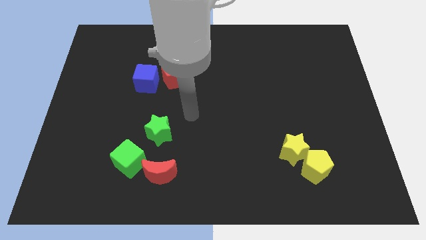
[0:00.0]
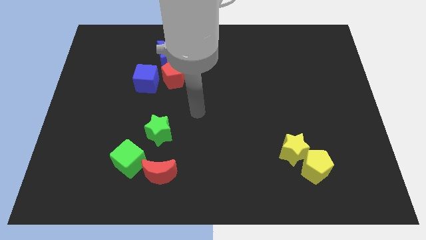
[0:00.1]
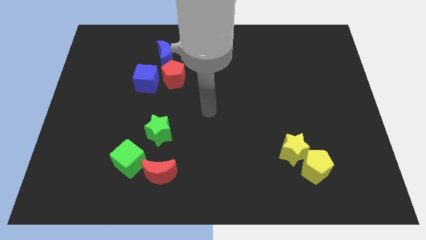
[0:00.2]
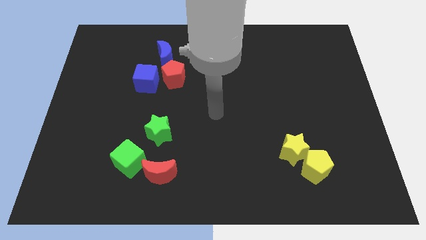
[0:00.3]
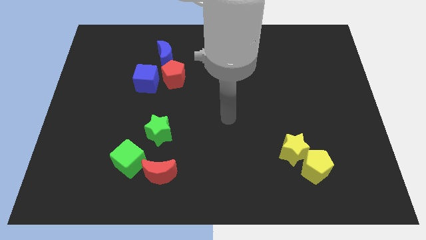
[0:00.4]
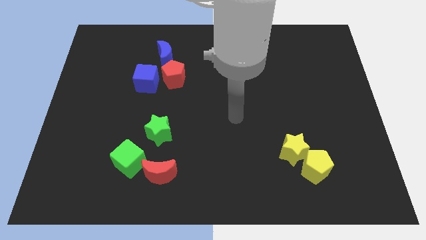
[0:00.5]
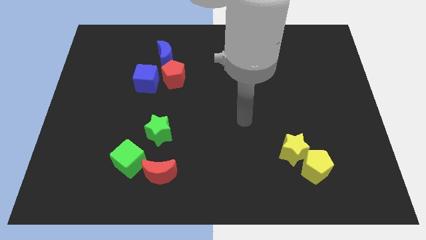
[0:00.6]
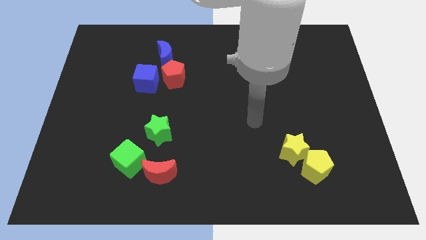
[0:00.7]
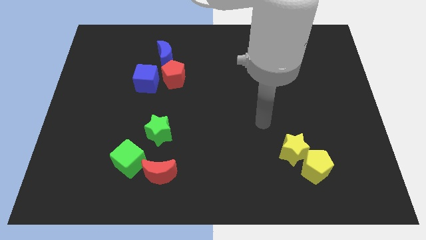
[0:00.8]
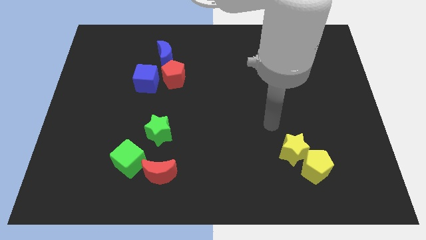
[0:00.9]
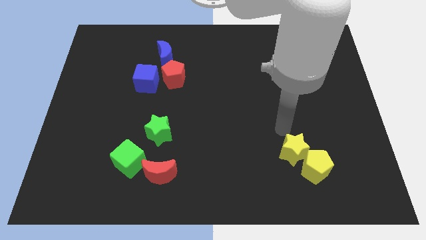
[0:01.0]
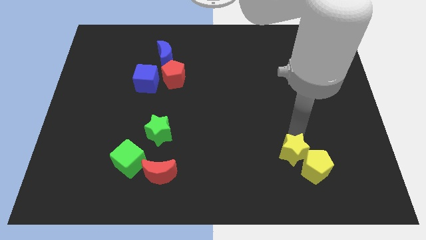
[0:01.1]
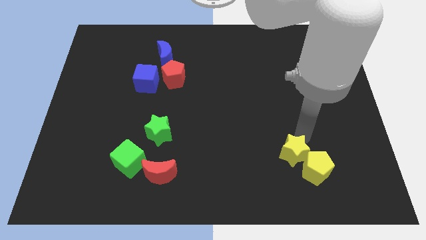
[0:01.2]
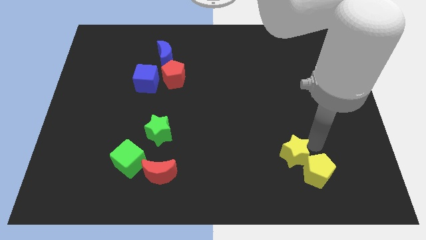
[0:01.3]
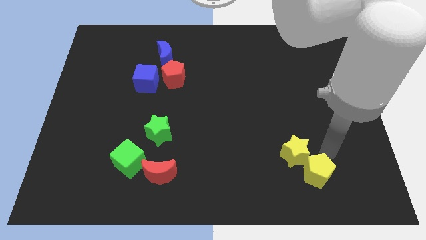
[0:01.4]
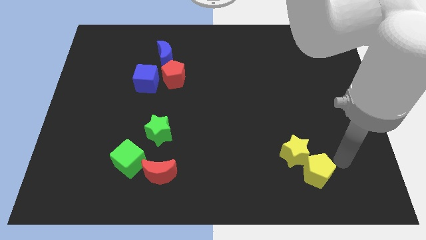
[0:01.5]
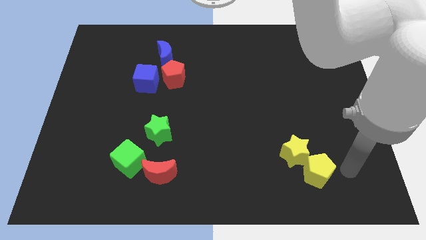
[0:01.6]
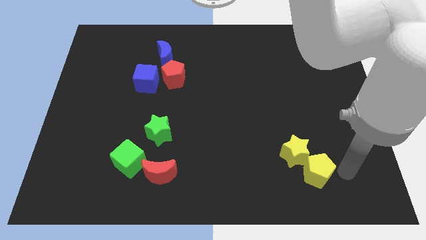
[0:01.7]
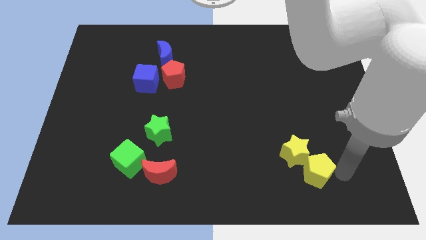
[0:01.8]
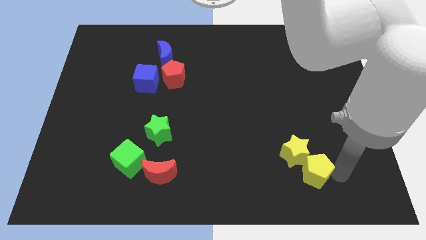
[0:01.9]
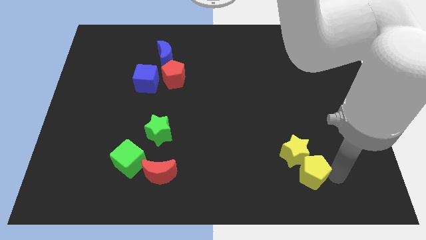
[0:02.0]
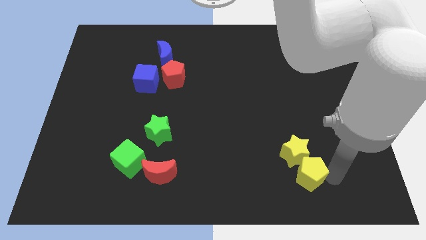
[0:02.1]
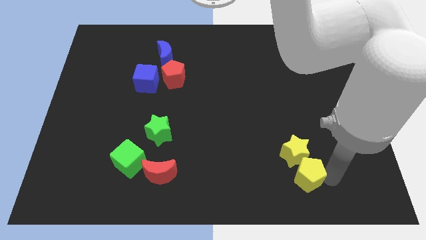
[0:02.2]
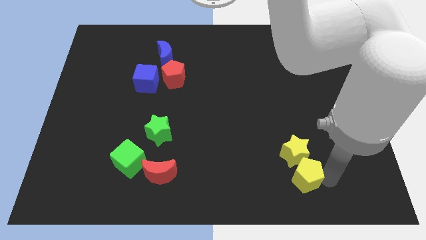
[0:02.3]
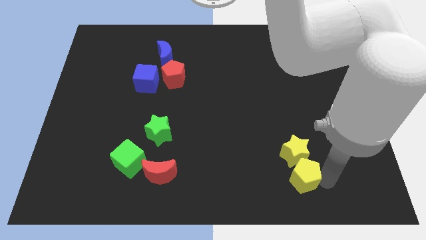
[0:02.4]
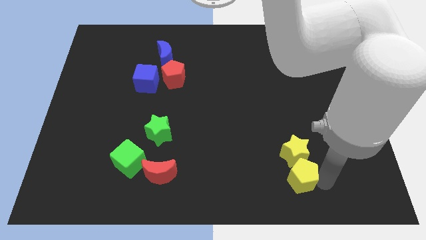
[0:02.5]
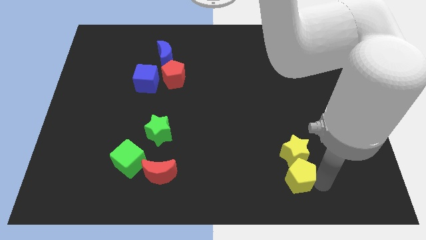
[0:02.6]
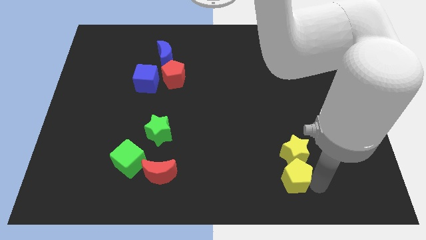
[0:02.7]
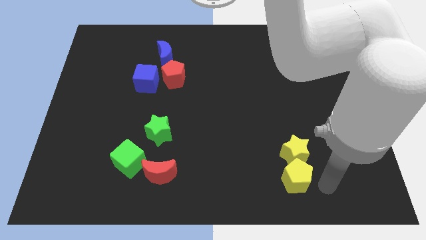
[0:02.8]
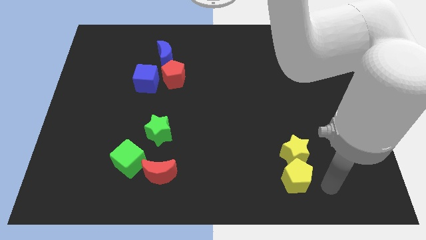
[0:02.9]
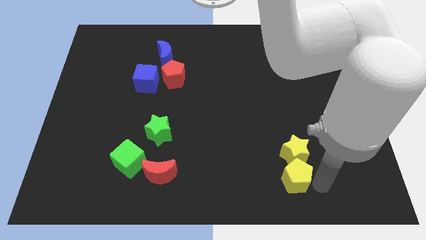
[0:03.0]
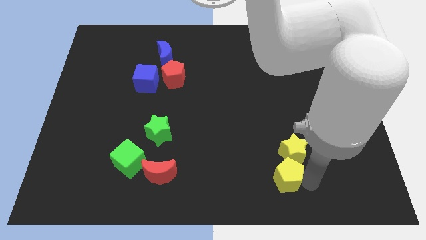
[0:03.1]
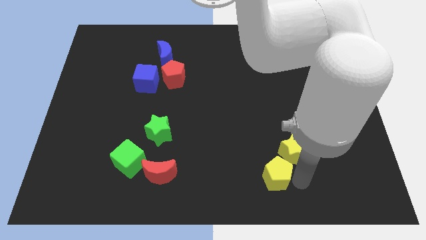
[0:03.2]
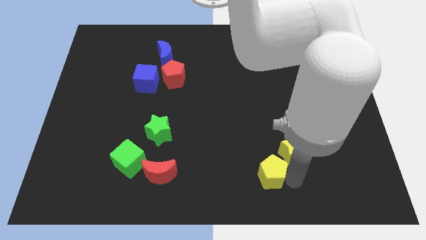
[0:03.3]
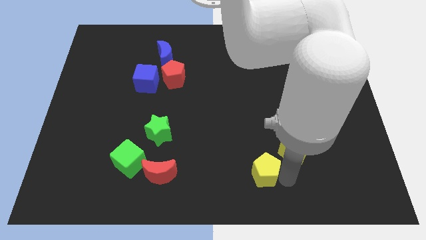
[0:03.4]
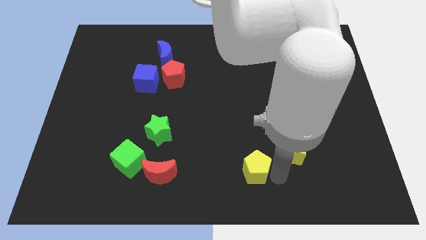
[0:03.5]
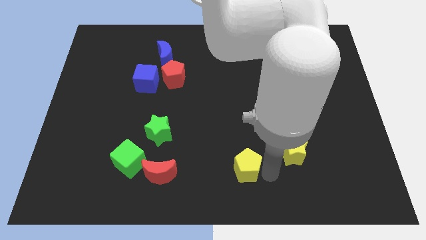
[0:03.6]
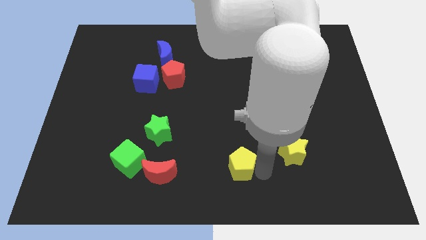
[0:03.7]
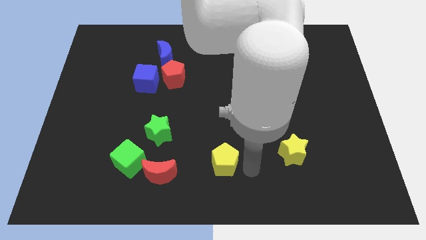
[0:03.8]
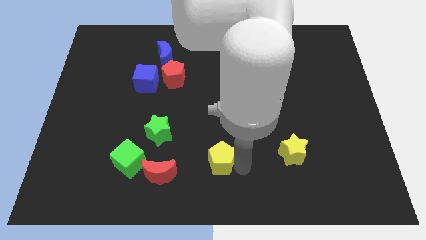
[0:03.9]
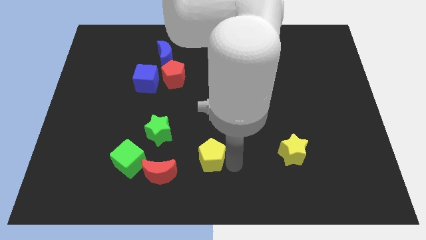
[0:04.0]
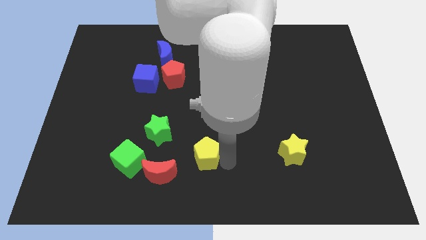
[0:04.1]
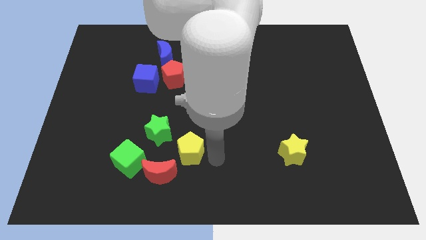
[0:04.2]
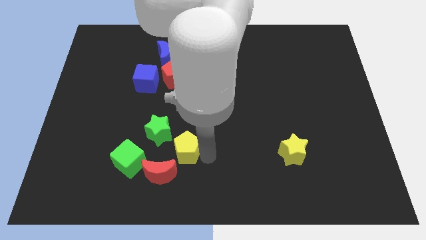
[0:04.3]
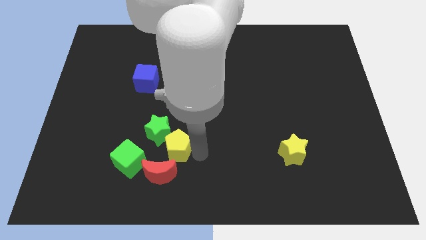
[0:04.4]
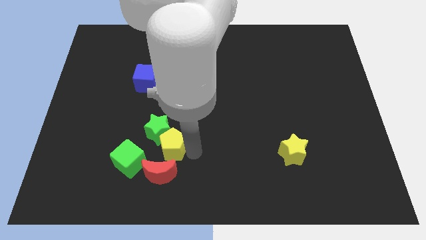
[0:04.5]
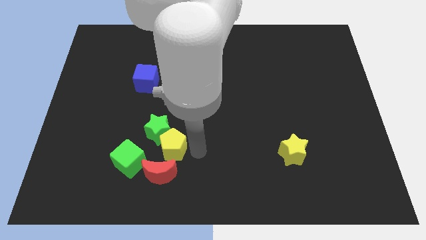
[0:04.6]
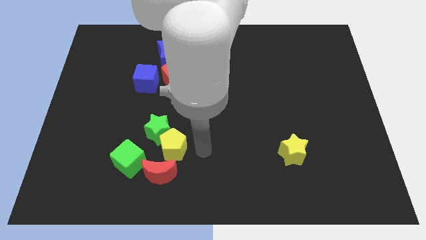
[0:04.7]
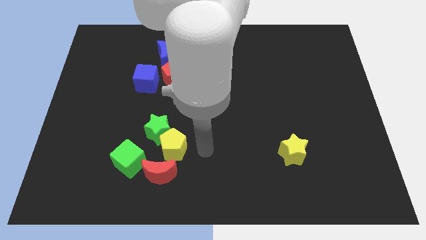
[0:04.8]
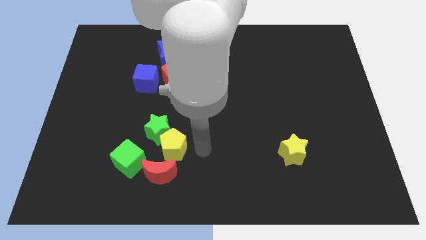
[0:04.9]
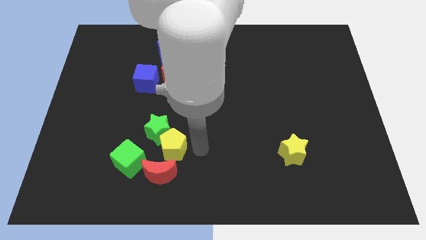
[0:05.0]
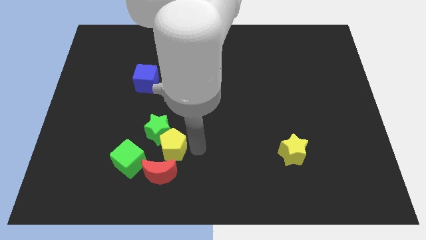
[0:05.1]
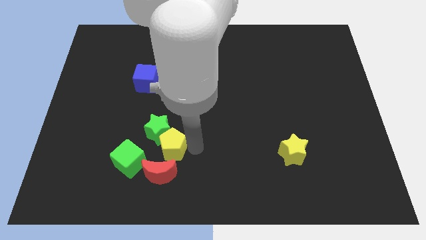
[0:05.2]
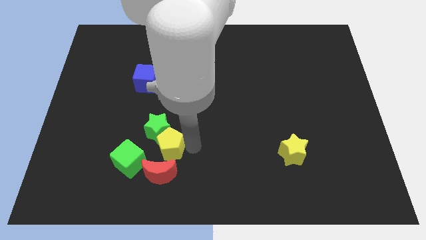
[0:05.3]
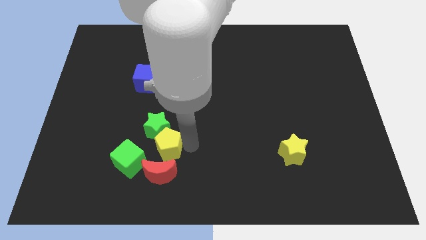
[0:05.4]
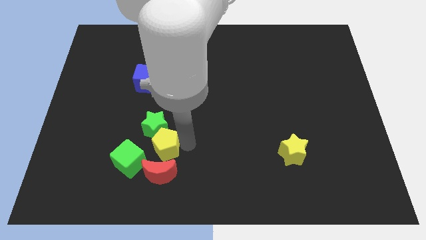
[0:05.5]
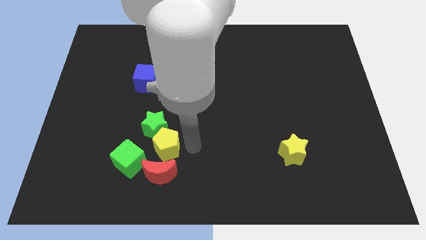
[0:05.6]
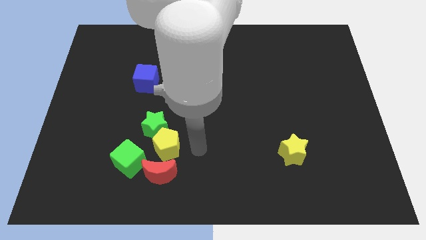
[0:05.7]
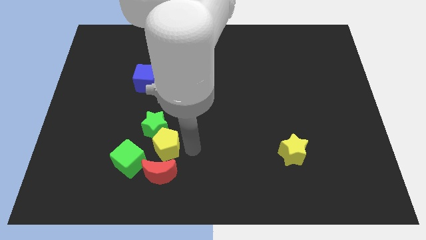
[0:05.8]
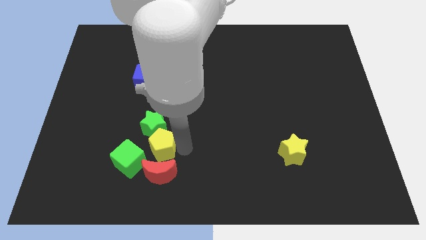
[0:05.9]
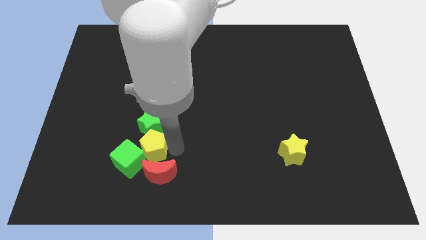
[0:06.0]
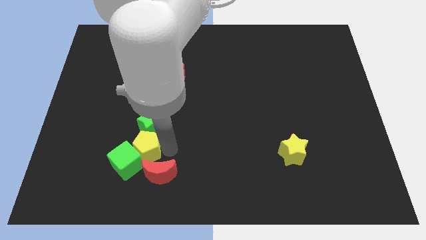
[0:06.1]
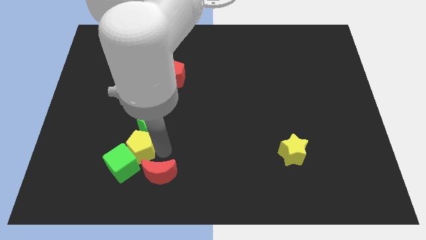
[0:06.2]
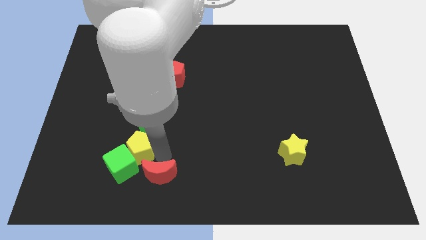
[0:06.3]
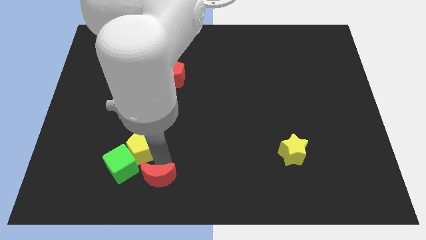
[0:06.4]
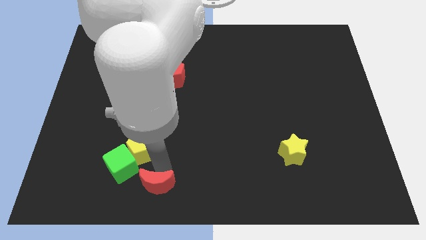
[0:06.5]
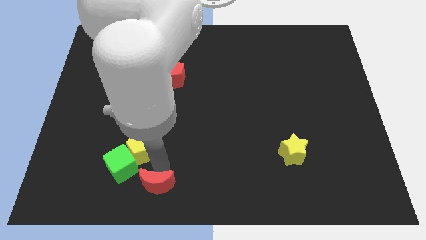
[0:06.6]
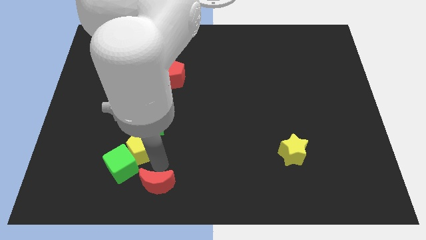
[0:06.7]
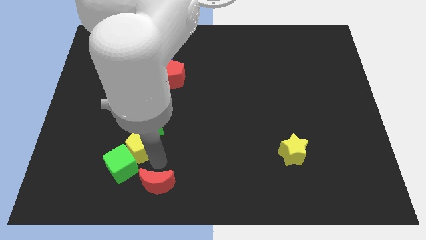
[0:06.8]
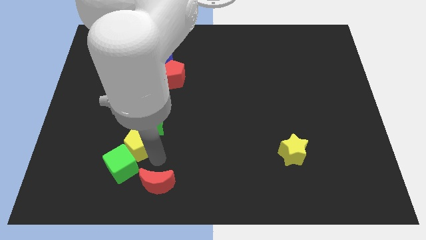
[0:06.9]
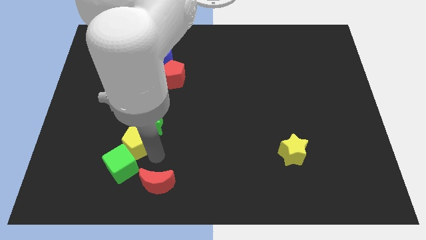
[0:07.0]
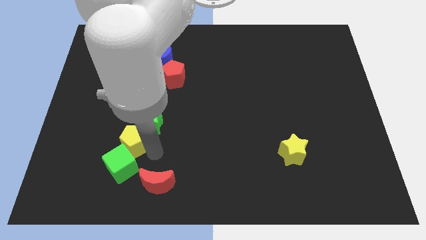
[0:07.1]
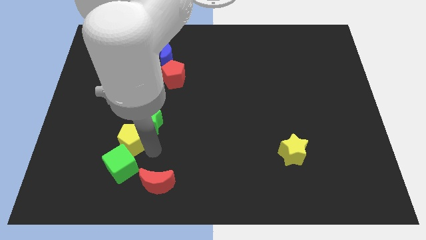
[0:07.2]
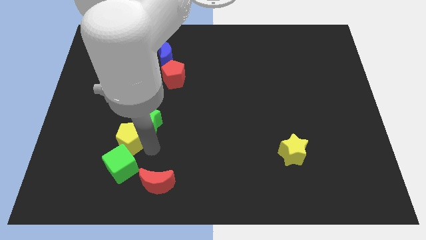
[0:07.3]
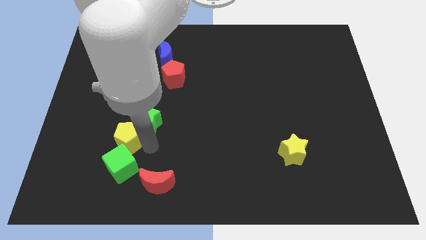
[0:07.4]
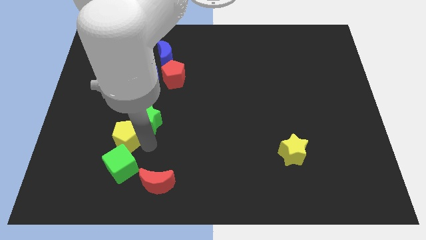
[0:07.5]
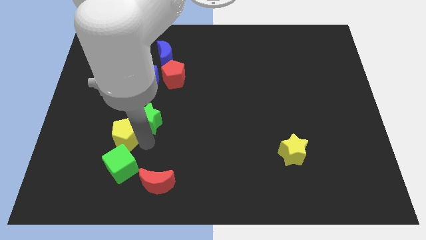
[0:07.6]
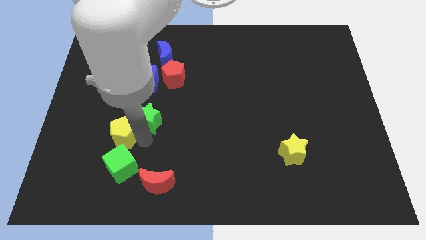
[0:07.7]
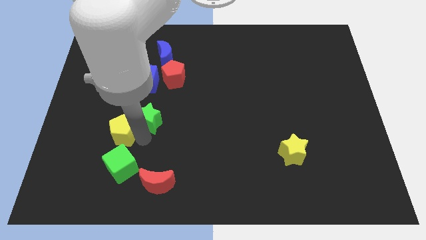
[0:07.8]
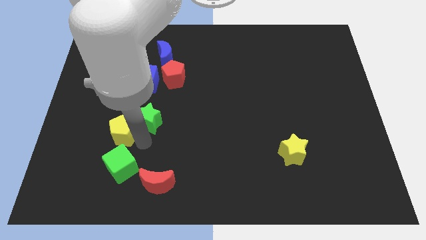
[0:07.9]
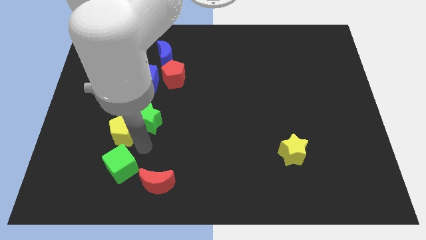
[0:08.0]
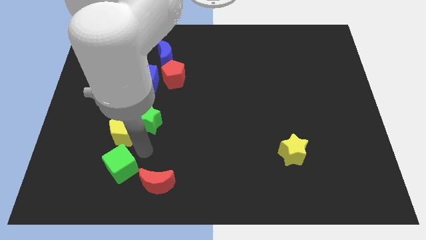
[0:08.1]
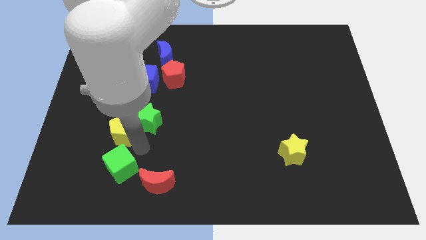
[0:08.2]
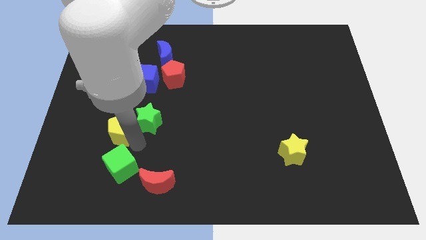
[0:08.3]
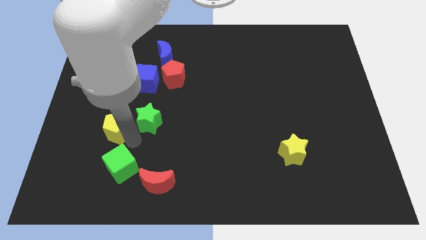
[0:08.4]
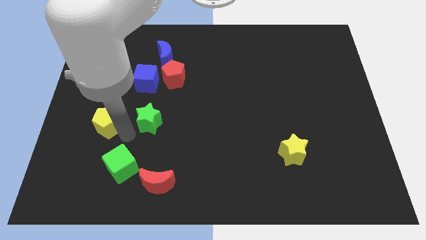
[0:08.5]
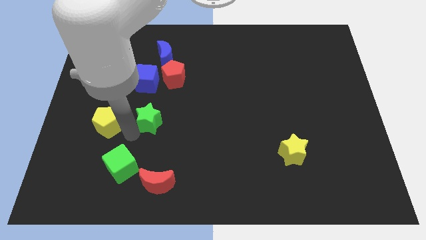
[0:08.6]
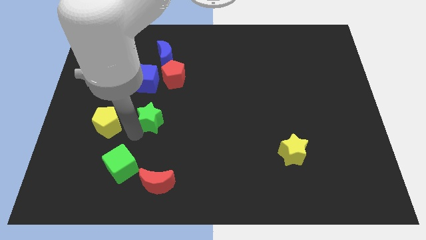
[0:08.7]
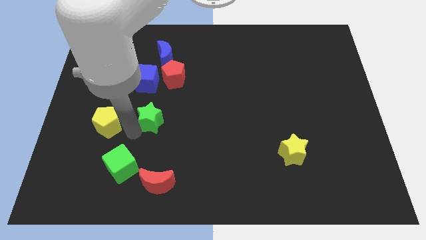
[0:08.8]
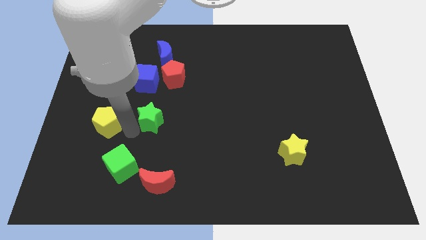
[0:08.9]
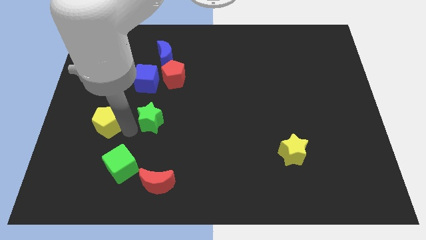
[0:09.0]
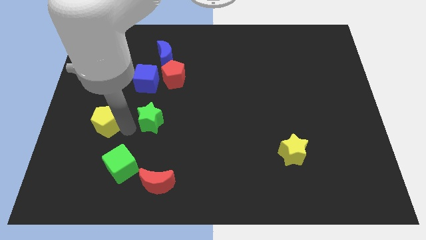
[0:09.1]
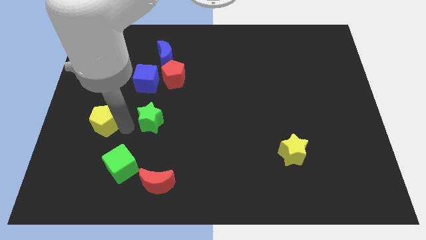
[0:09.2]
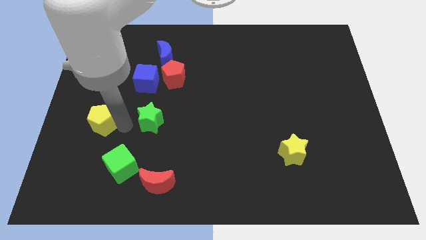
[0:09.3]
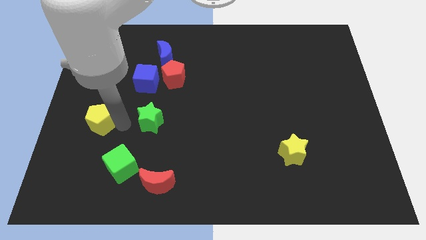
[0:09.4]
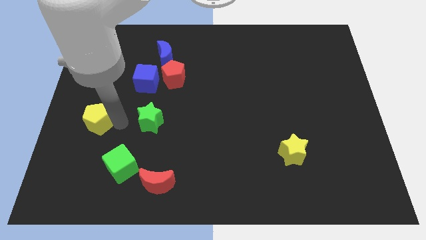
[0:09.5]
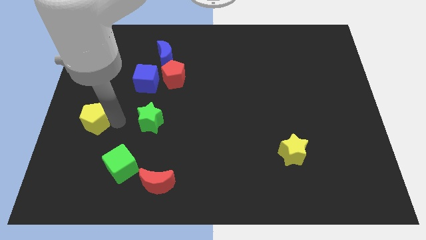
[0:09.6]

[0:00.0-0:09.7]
slide the yellow pentagon to the center left
